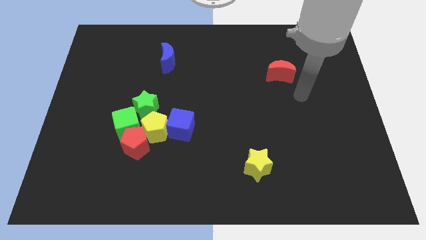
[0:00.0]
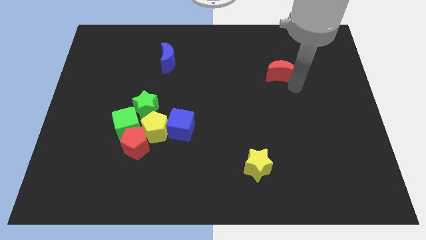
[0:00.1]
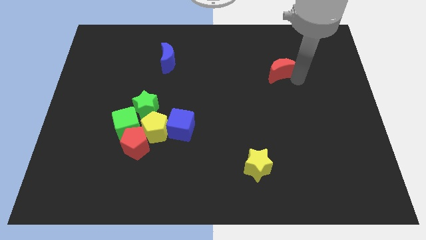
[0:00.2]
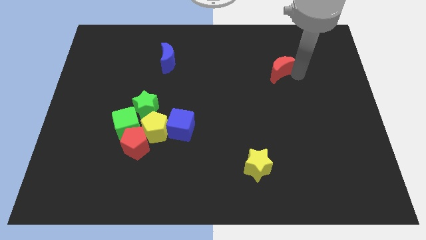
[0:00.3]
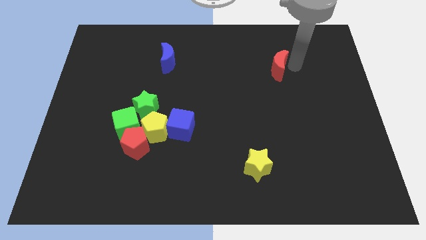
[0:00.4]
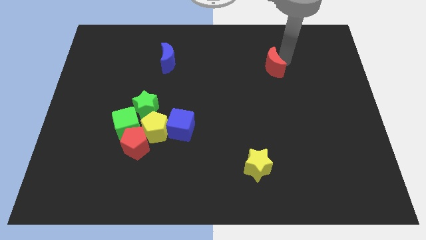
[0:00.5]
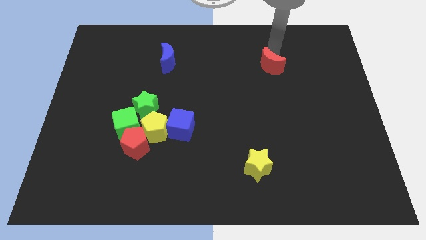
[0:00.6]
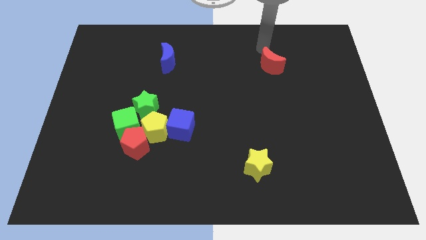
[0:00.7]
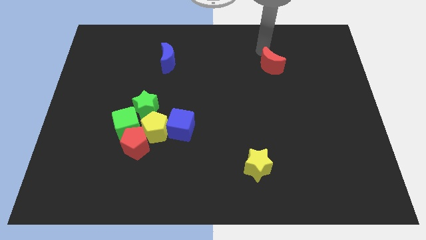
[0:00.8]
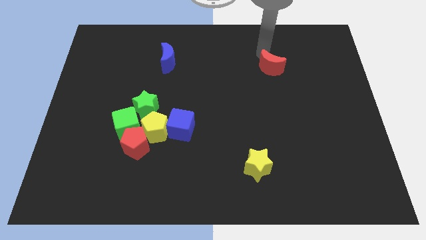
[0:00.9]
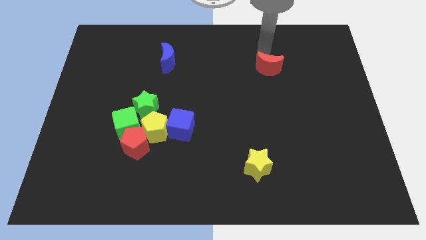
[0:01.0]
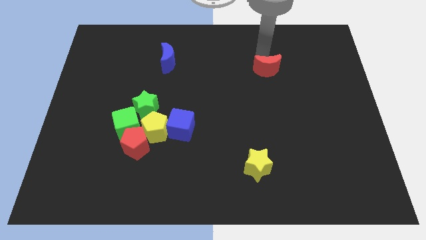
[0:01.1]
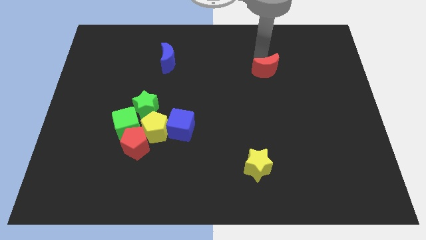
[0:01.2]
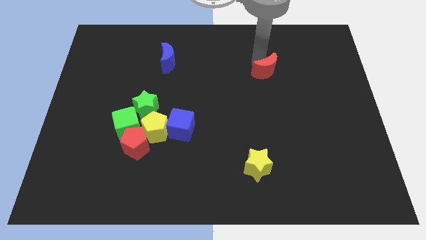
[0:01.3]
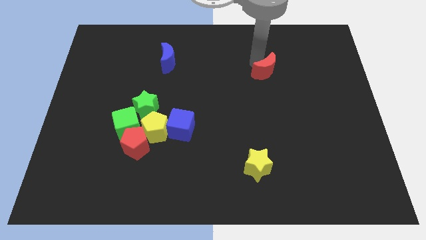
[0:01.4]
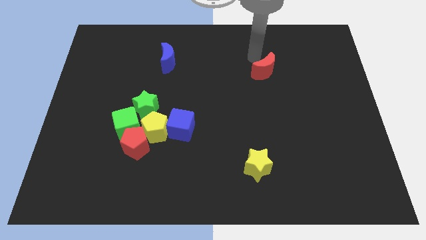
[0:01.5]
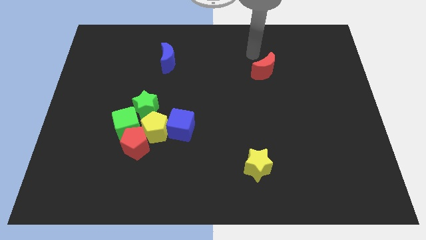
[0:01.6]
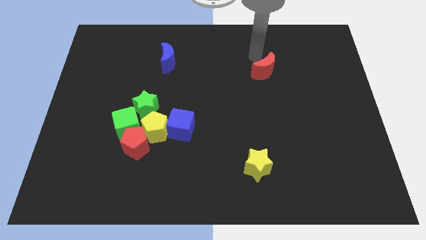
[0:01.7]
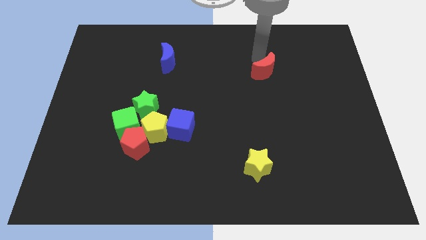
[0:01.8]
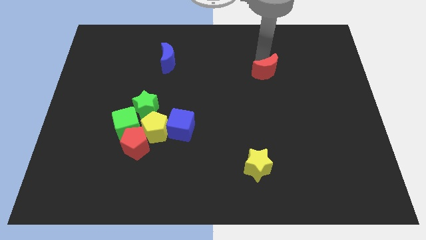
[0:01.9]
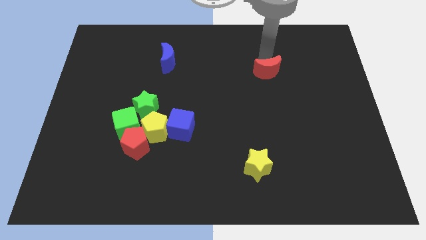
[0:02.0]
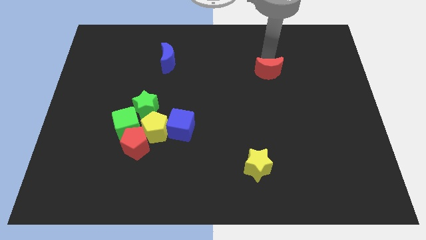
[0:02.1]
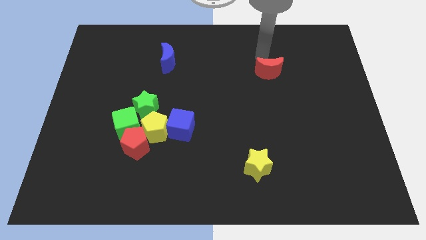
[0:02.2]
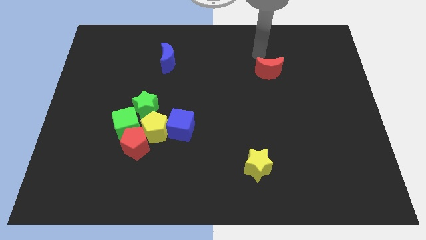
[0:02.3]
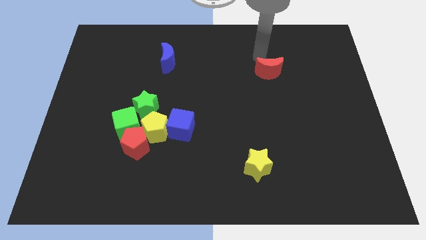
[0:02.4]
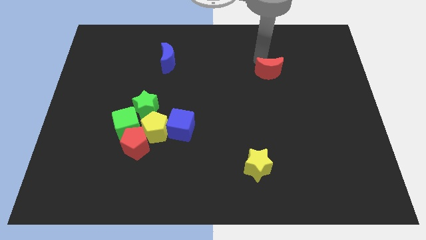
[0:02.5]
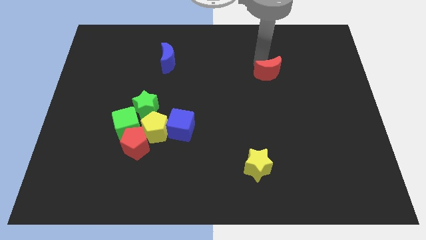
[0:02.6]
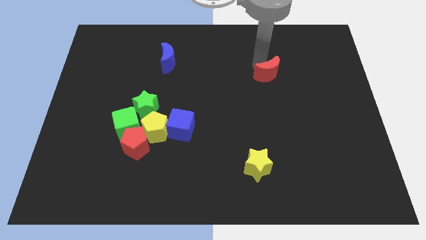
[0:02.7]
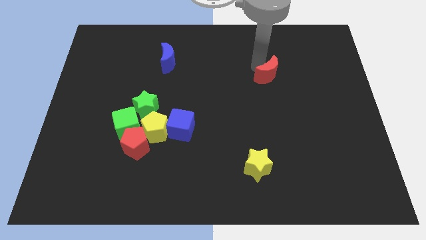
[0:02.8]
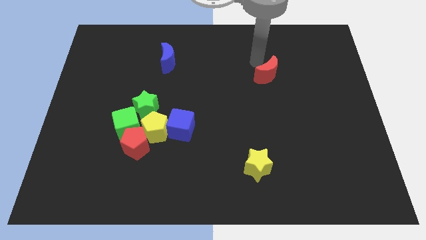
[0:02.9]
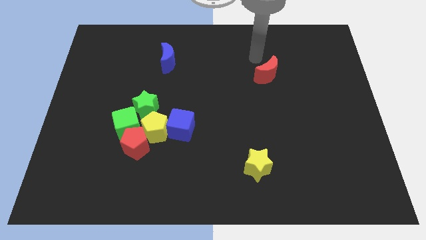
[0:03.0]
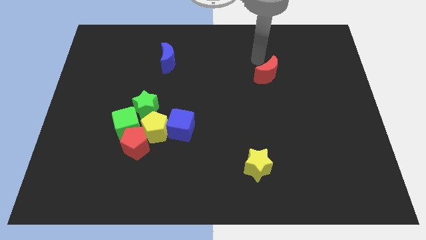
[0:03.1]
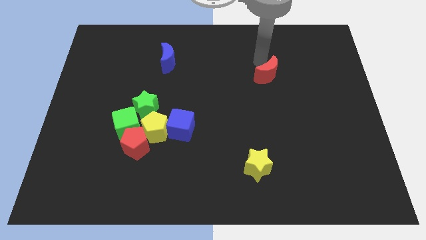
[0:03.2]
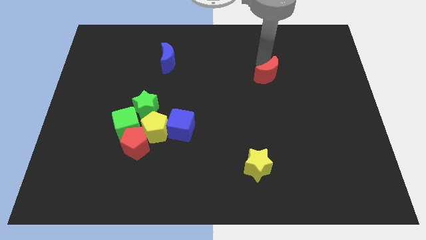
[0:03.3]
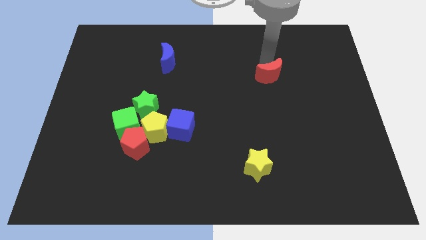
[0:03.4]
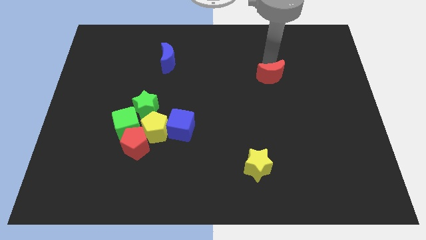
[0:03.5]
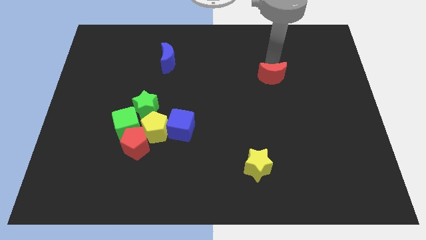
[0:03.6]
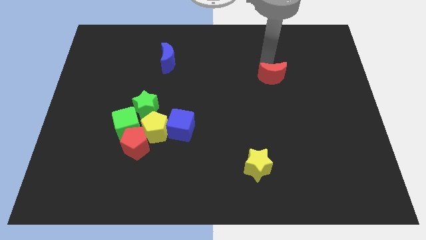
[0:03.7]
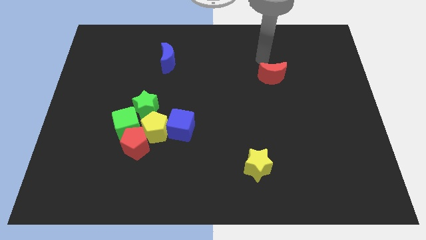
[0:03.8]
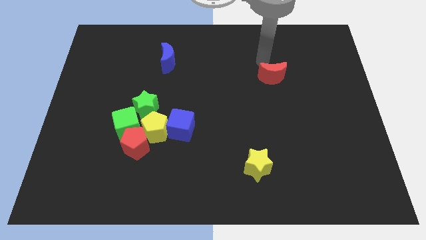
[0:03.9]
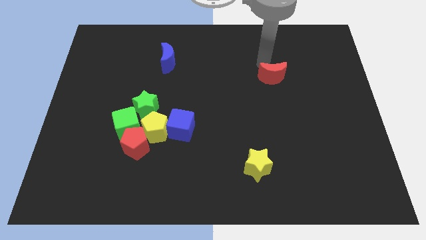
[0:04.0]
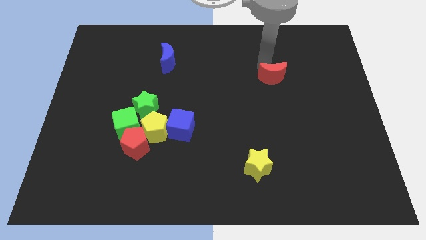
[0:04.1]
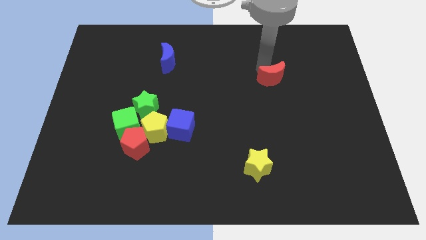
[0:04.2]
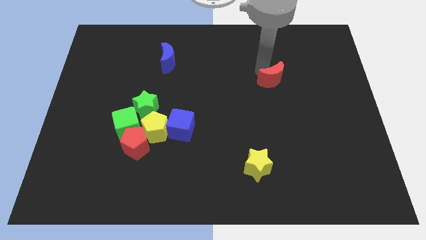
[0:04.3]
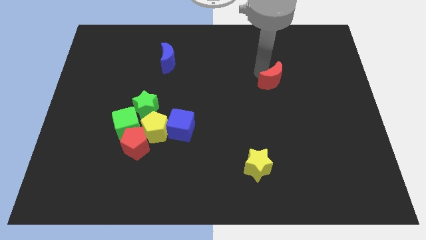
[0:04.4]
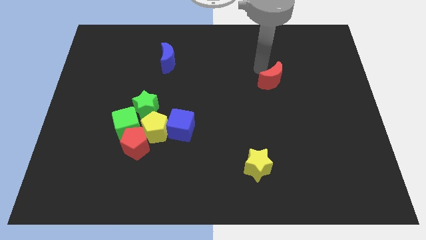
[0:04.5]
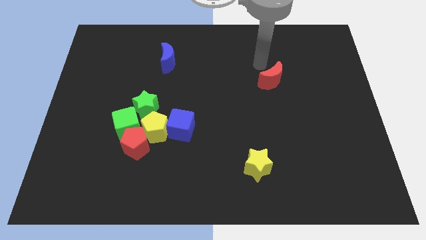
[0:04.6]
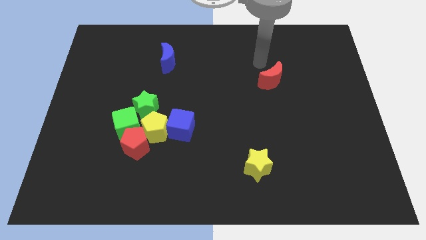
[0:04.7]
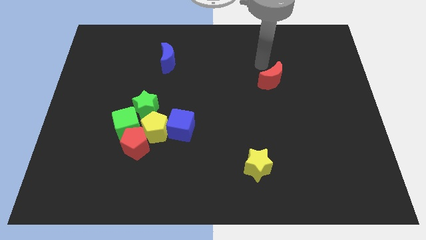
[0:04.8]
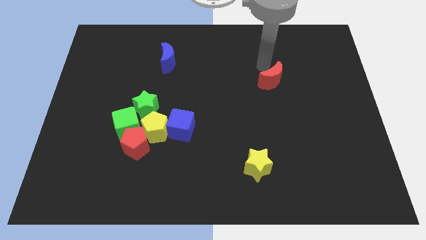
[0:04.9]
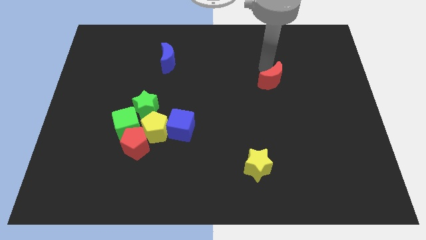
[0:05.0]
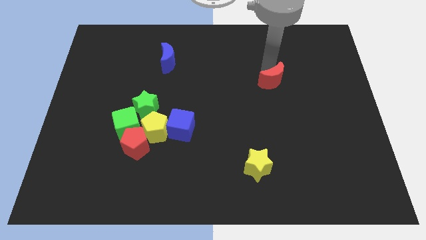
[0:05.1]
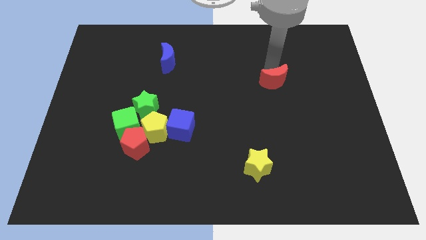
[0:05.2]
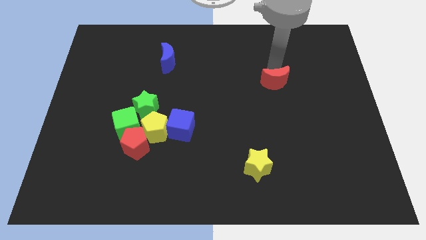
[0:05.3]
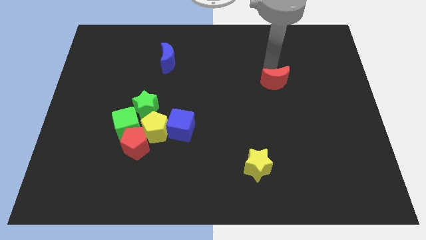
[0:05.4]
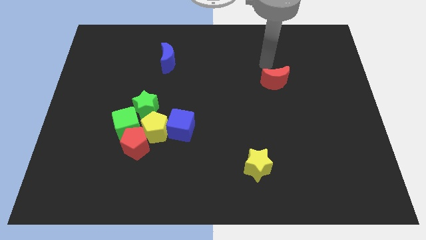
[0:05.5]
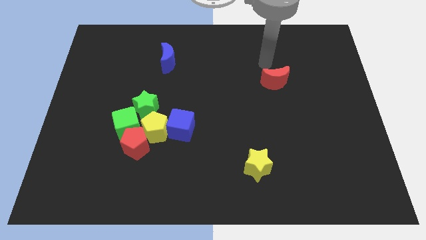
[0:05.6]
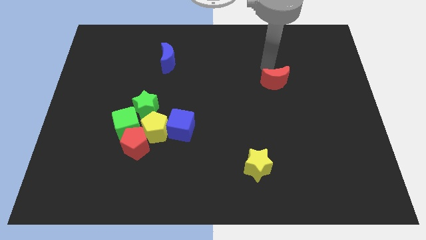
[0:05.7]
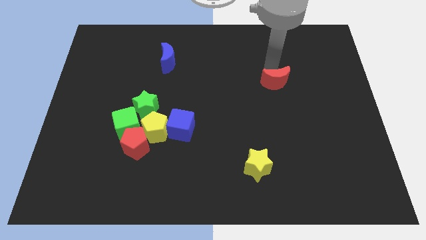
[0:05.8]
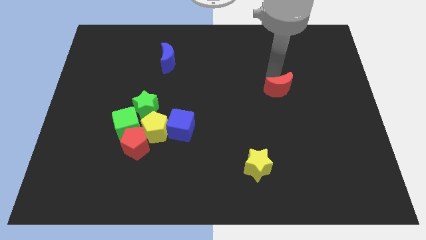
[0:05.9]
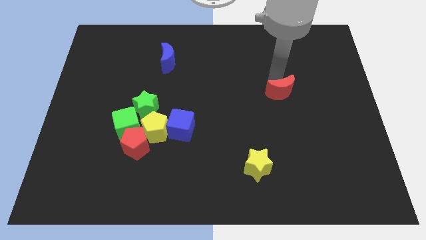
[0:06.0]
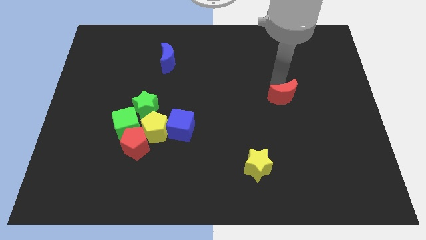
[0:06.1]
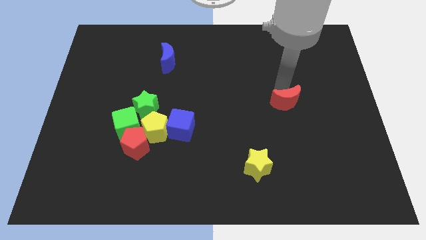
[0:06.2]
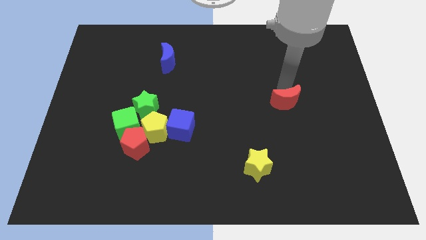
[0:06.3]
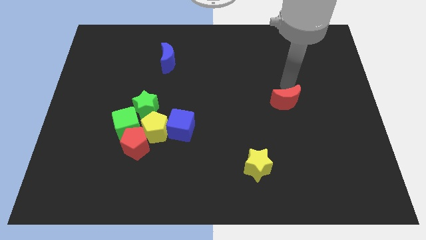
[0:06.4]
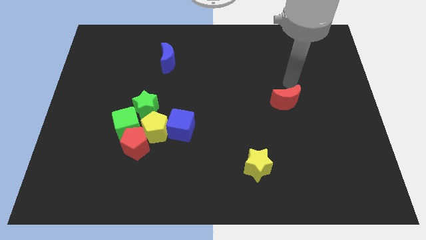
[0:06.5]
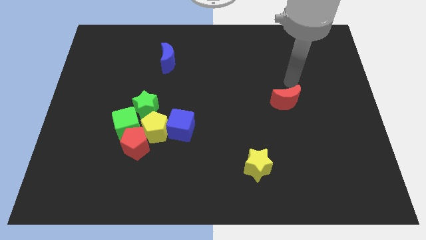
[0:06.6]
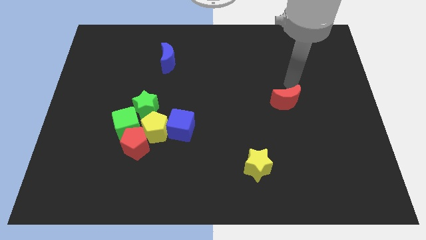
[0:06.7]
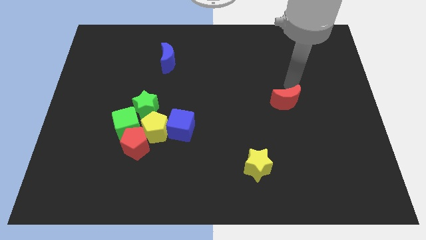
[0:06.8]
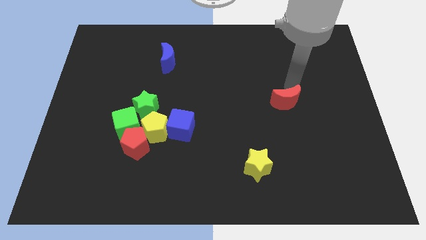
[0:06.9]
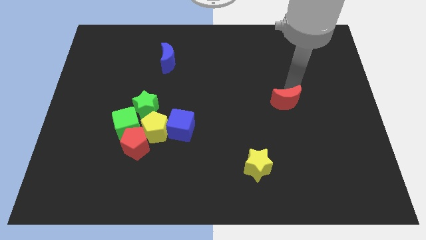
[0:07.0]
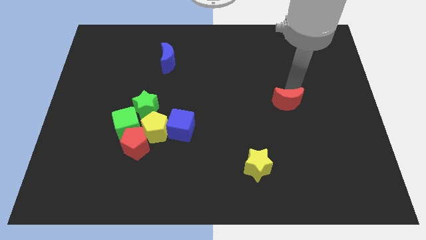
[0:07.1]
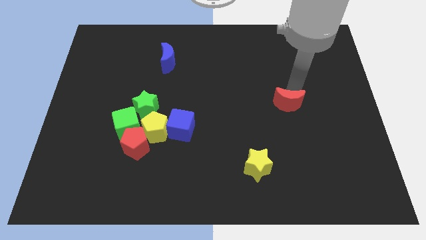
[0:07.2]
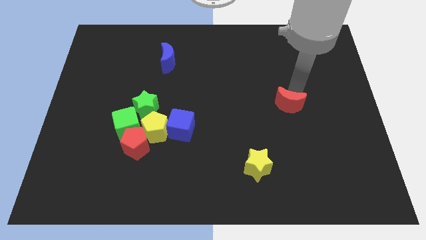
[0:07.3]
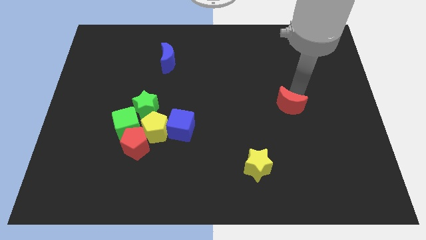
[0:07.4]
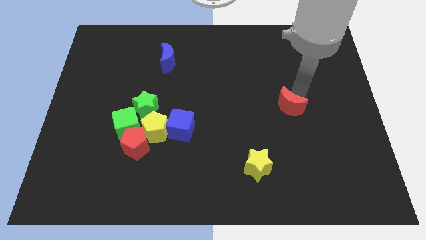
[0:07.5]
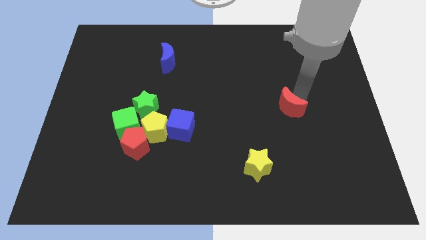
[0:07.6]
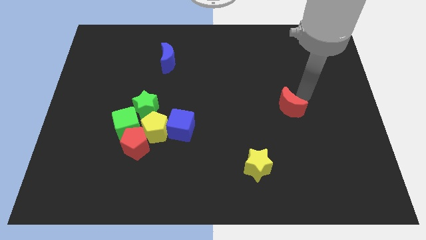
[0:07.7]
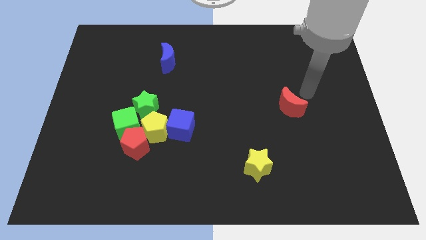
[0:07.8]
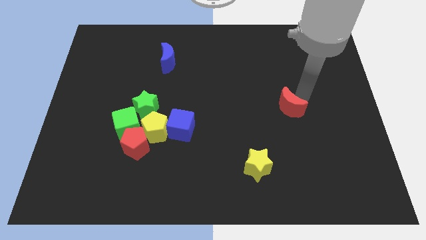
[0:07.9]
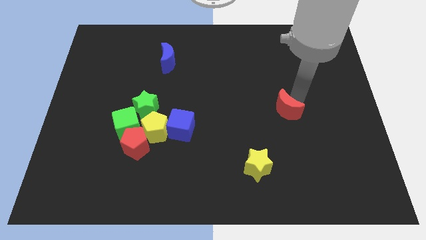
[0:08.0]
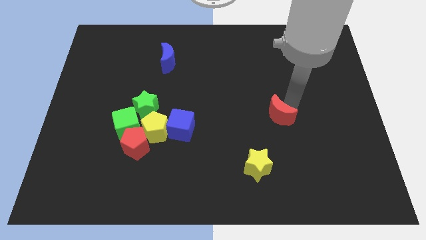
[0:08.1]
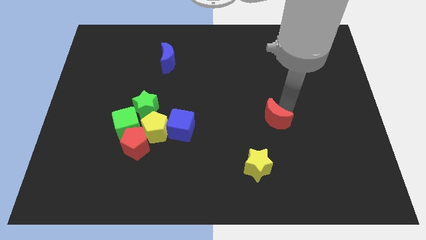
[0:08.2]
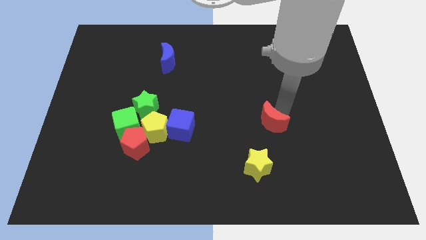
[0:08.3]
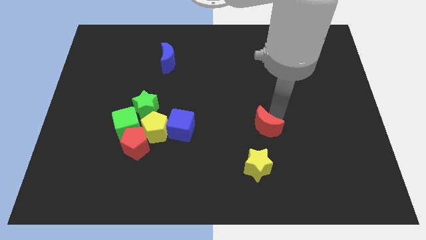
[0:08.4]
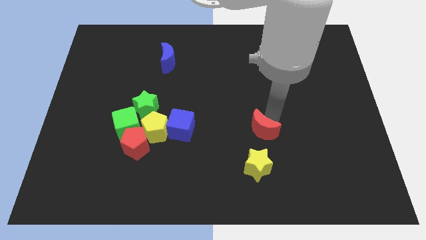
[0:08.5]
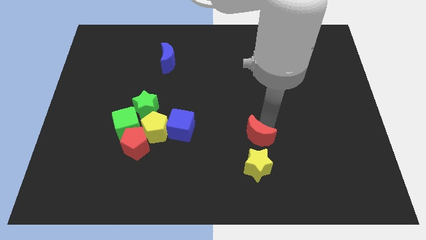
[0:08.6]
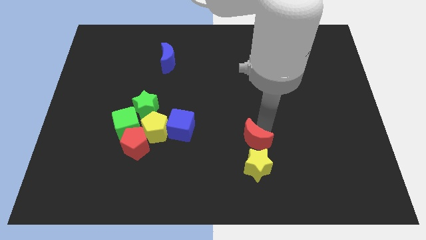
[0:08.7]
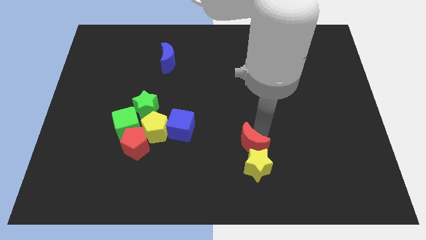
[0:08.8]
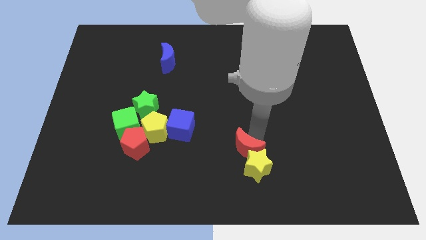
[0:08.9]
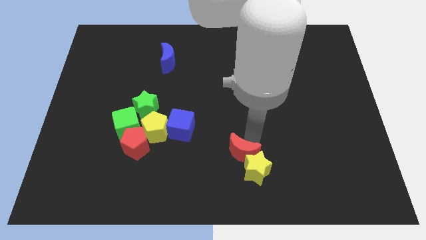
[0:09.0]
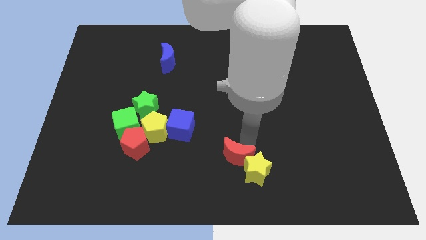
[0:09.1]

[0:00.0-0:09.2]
slide the red moon to the bottom side
